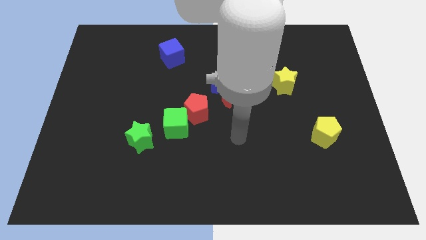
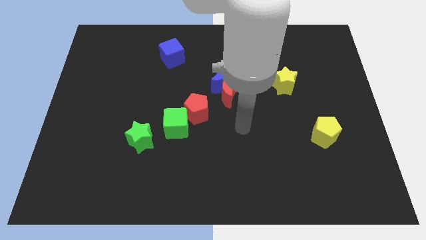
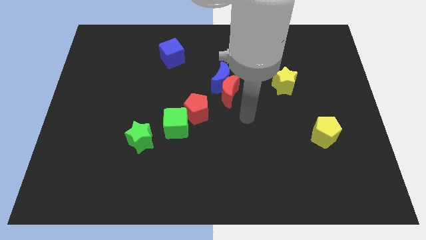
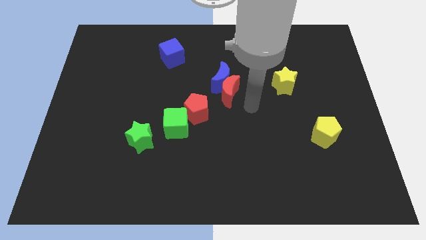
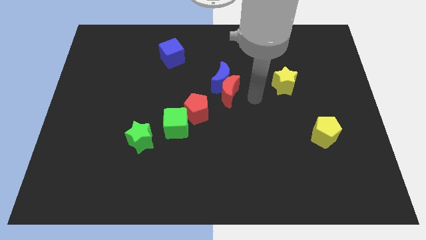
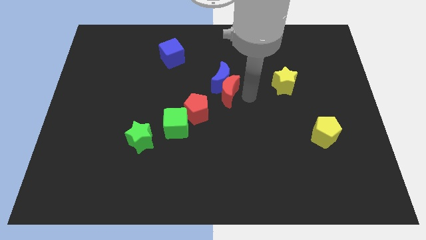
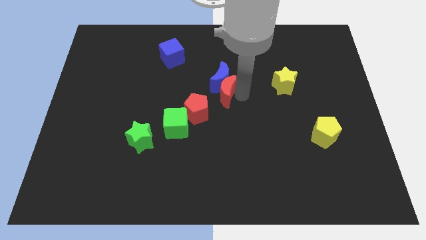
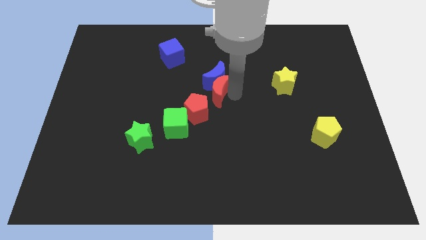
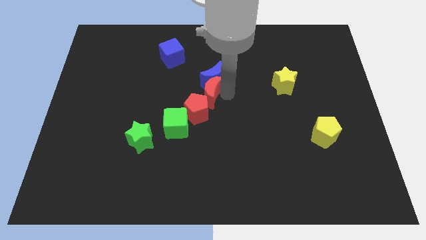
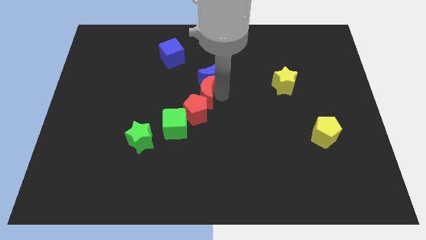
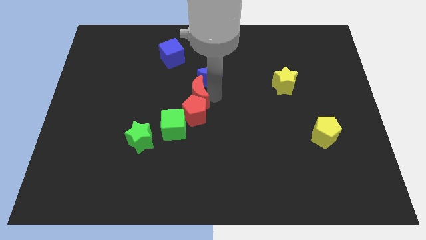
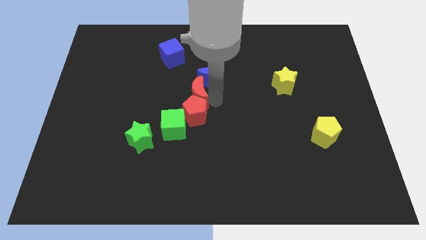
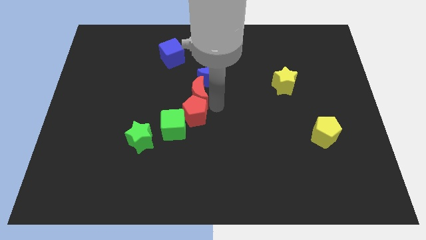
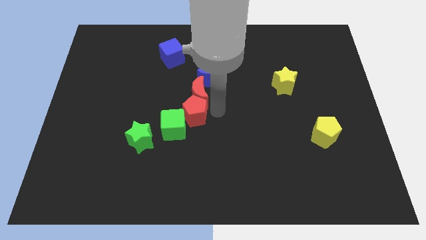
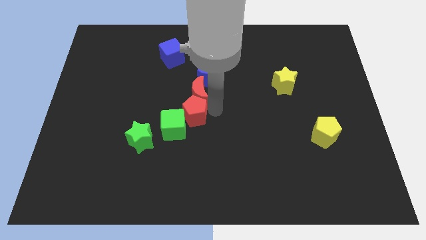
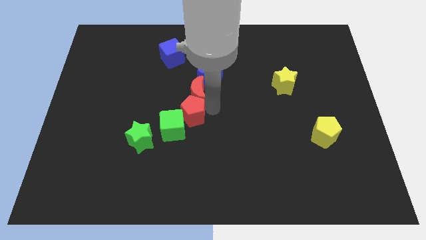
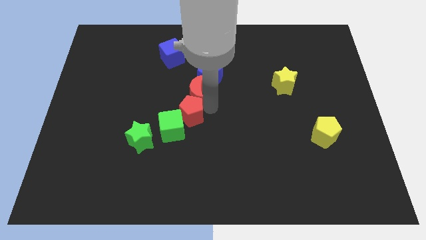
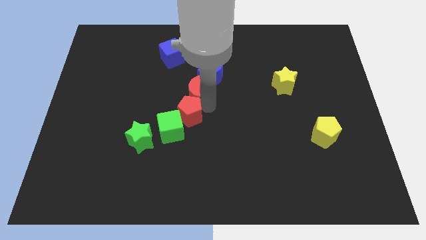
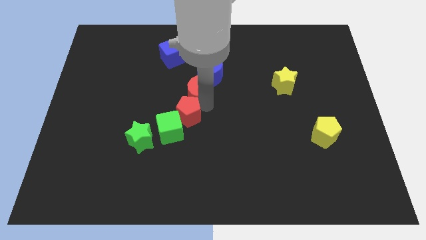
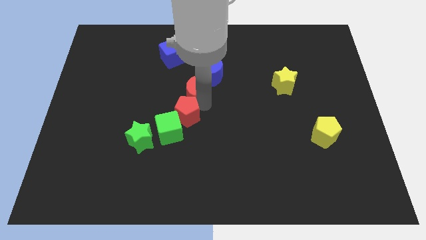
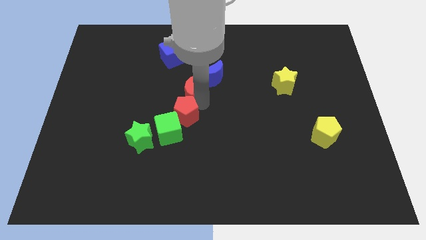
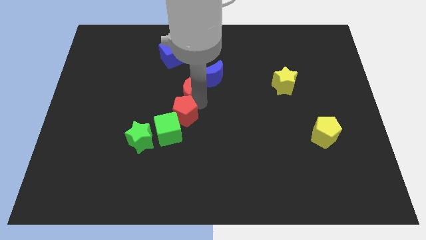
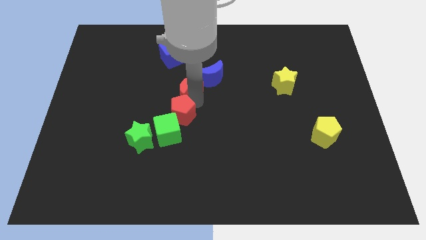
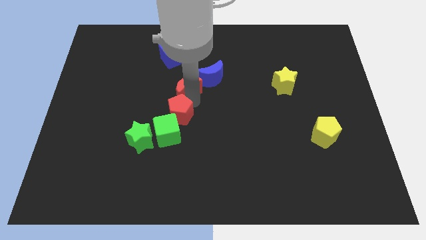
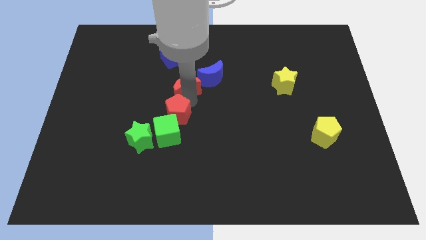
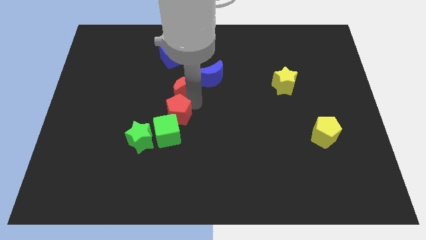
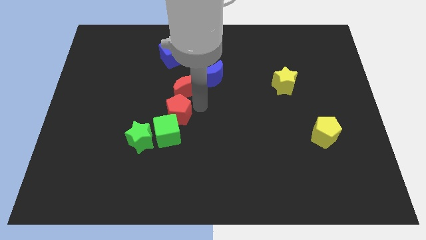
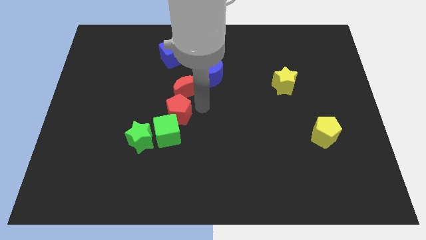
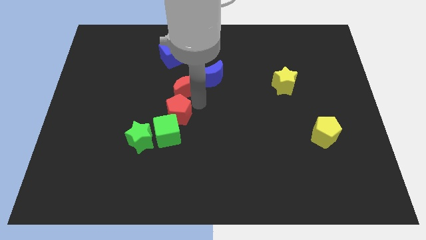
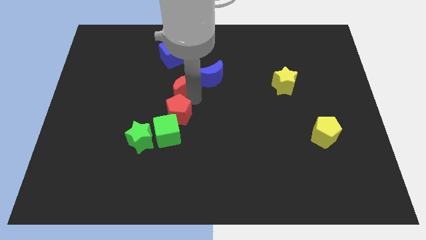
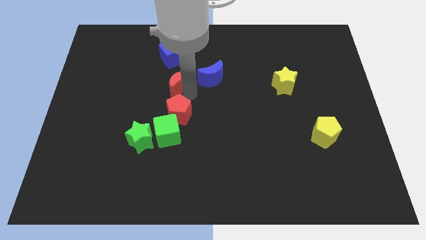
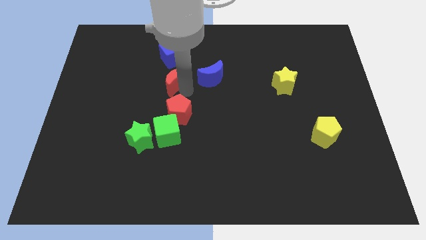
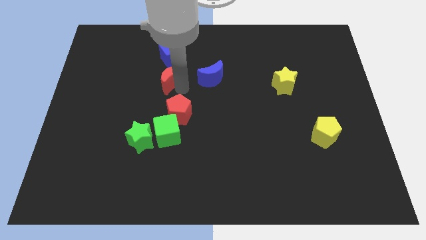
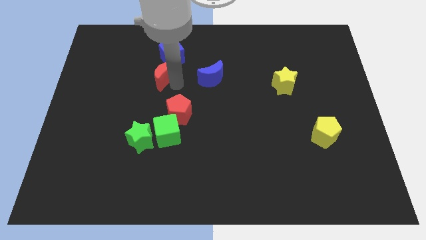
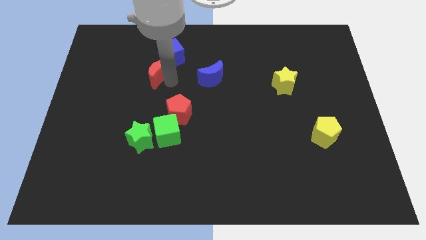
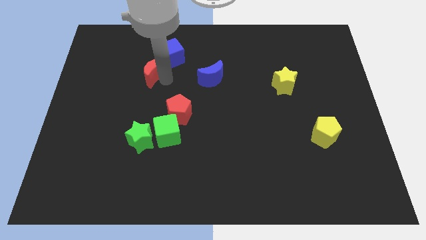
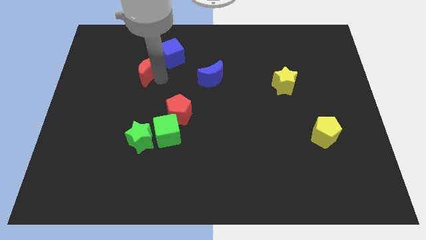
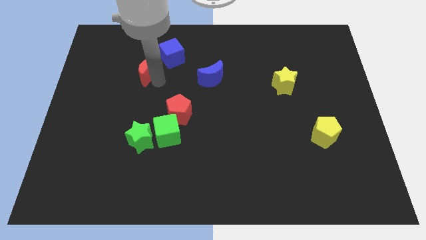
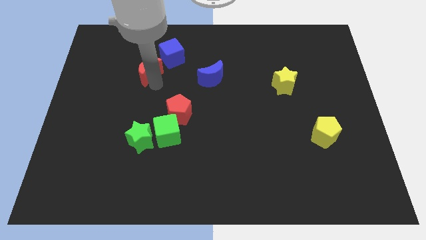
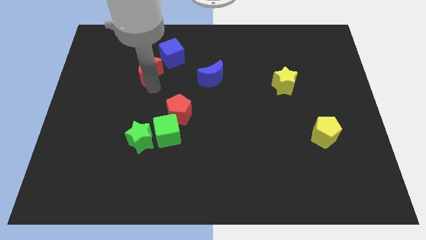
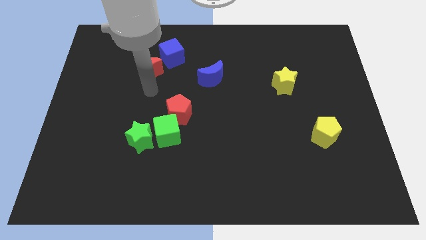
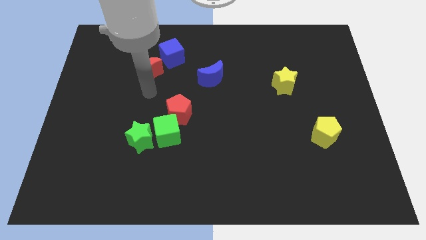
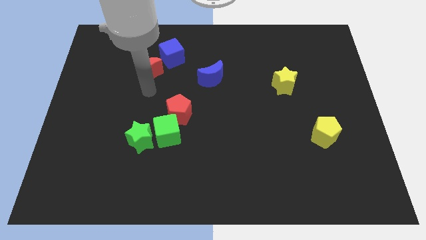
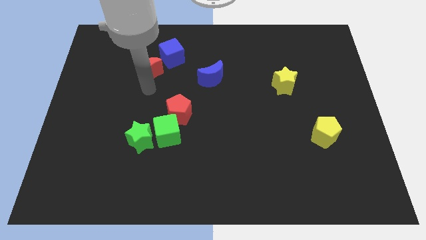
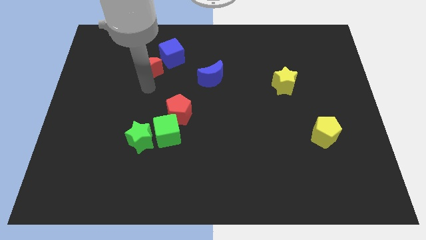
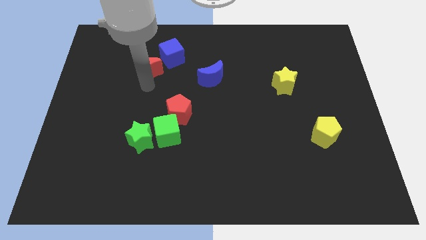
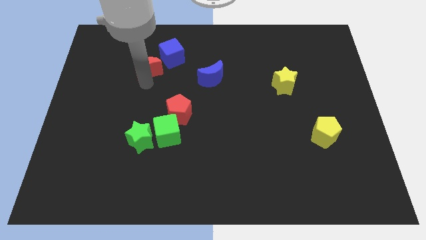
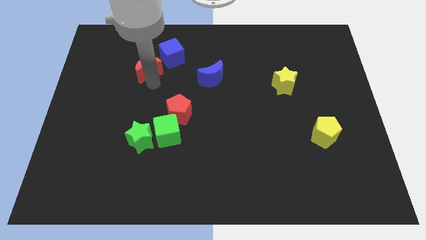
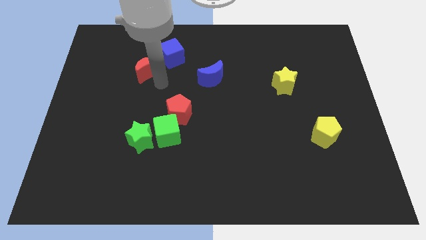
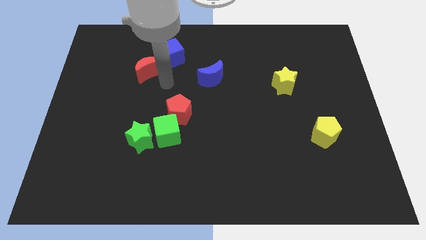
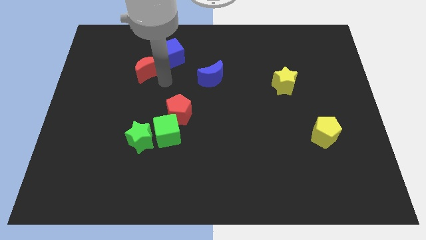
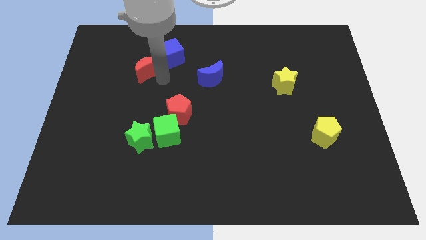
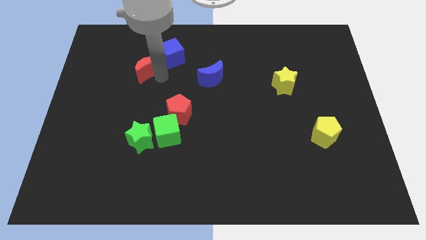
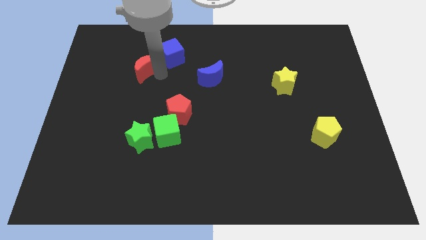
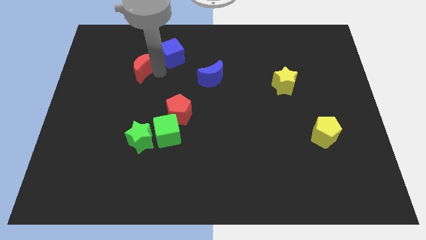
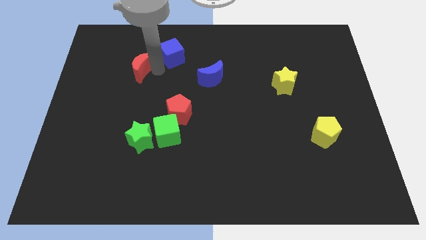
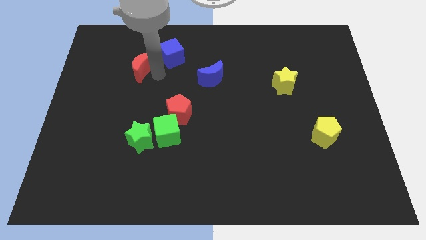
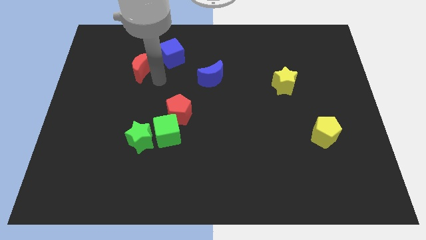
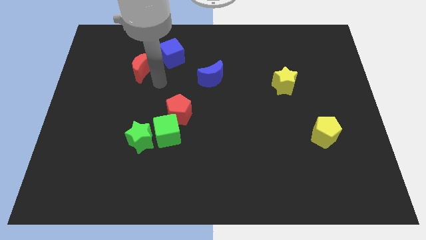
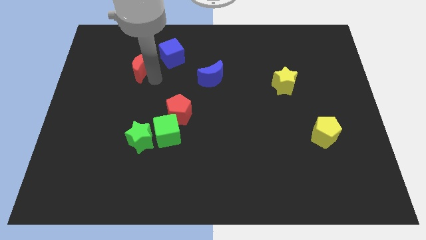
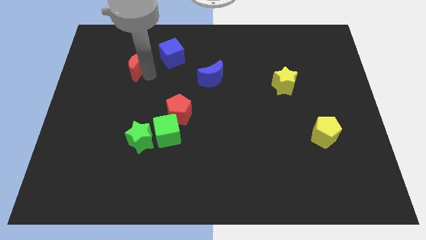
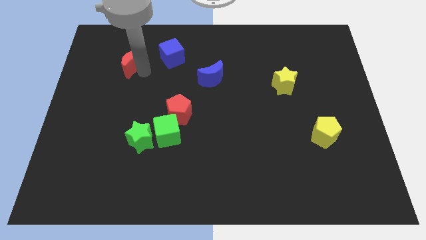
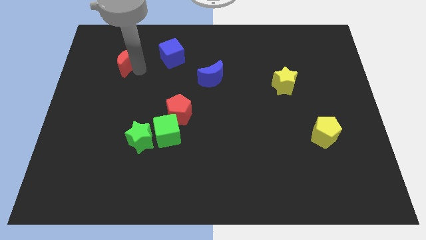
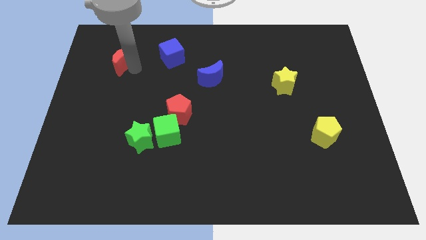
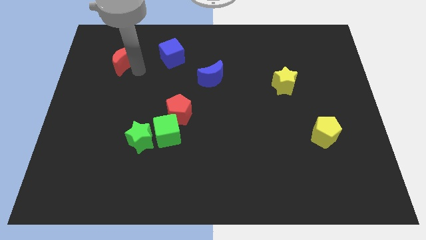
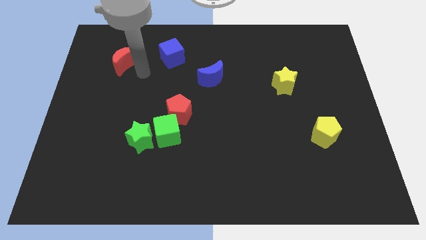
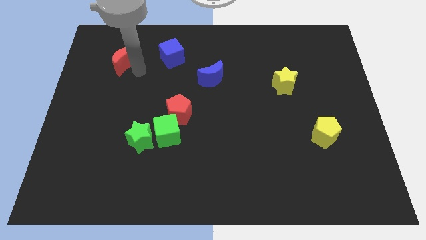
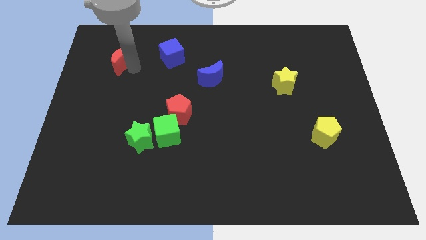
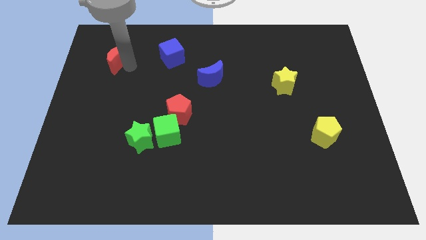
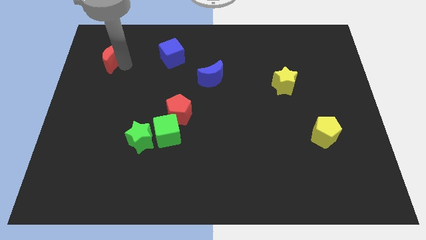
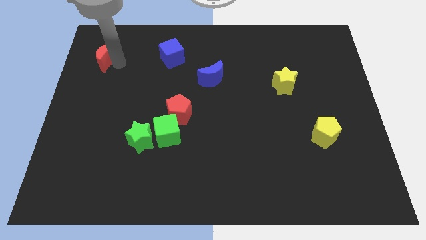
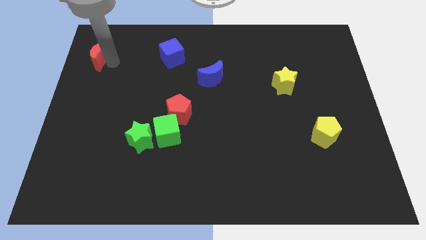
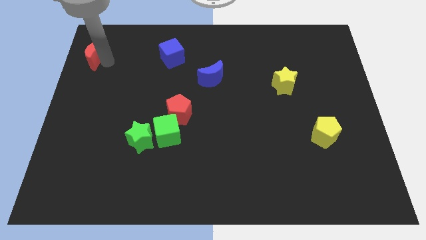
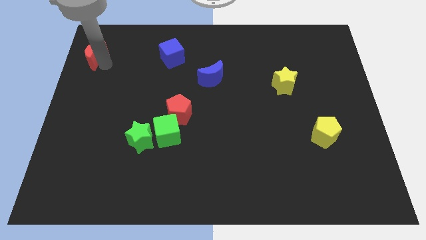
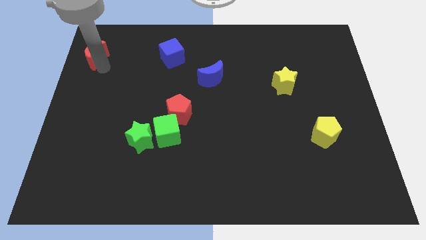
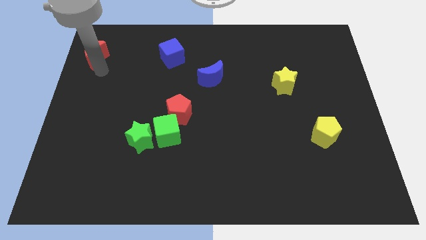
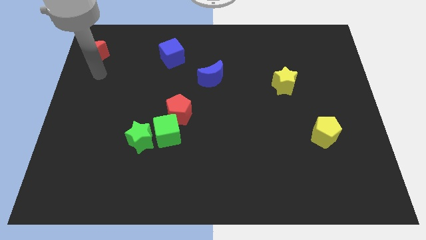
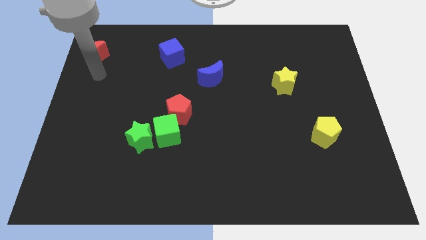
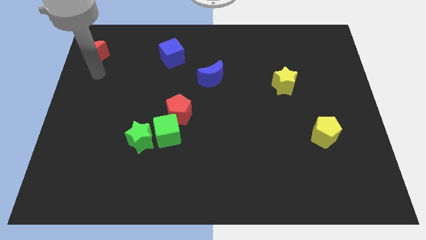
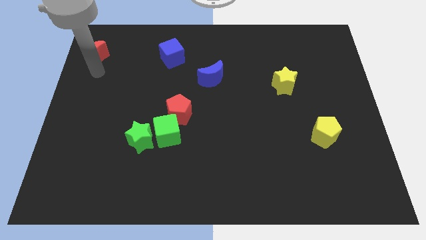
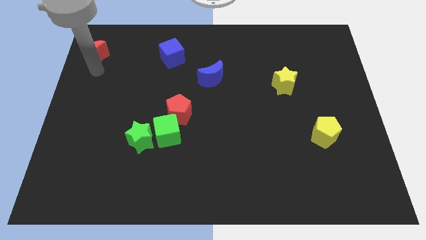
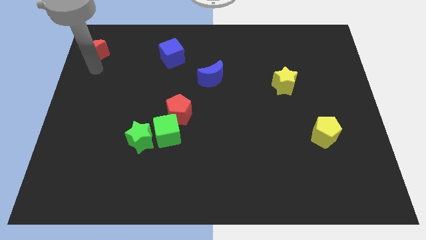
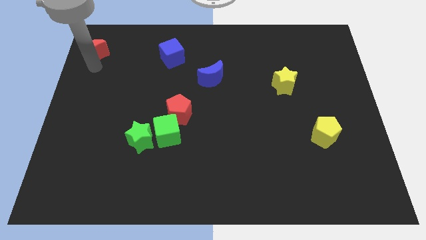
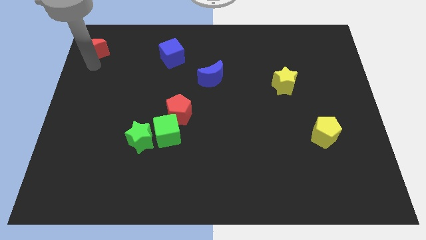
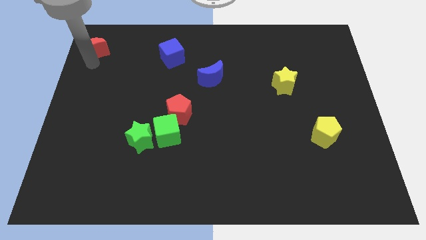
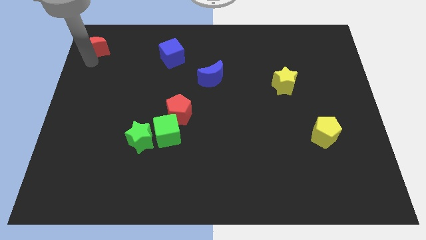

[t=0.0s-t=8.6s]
push the red moon to the top left
